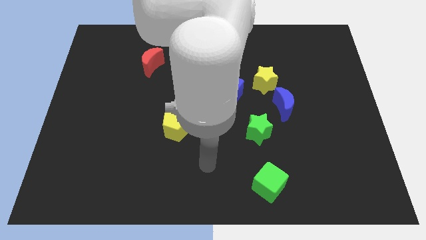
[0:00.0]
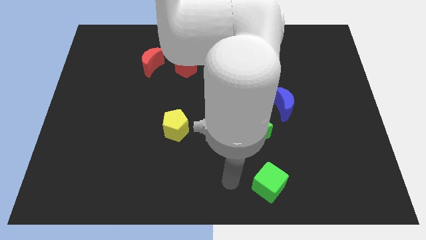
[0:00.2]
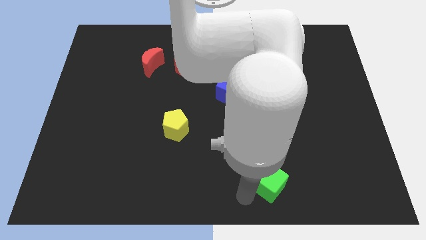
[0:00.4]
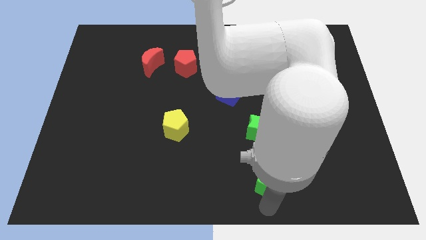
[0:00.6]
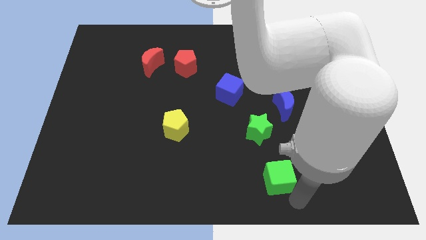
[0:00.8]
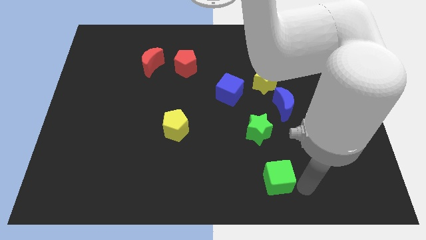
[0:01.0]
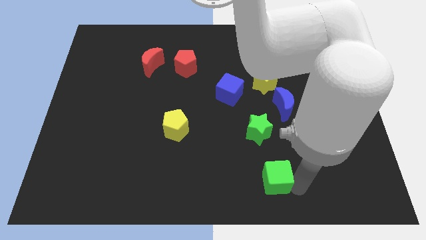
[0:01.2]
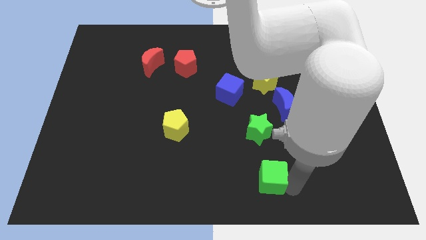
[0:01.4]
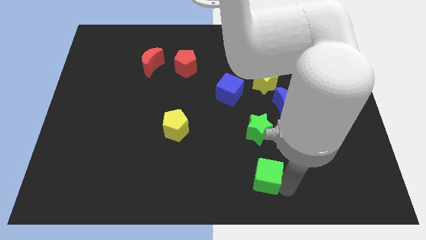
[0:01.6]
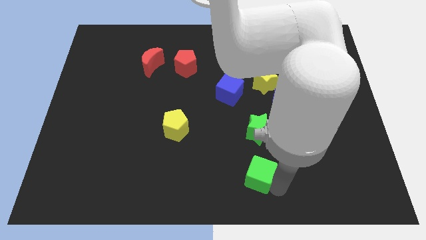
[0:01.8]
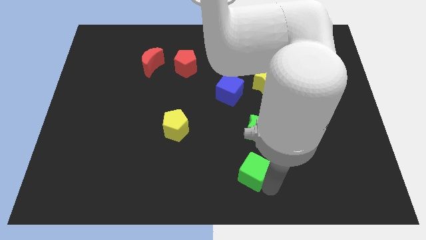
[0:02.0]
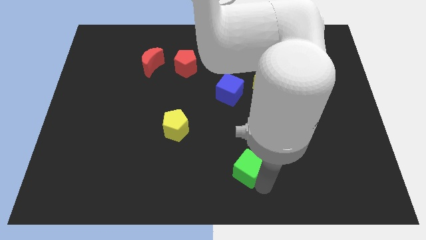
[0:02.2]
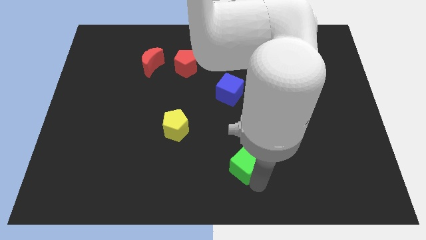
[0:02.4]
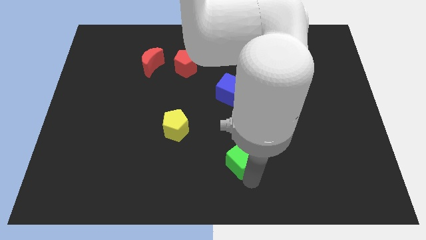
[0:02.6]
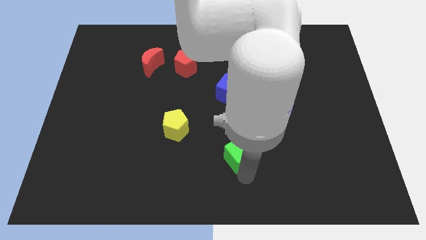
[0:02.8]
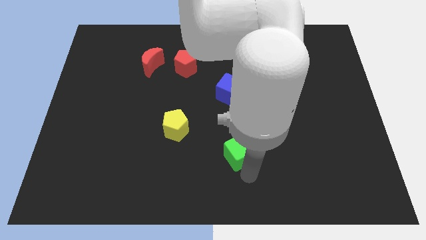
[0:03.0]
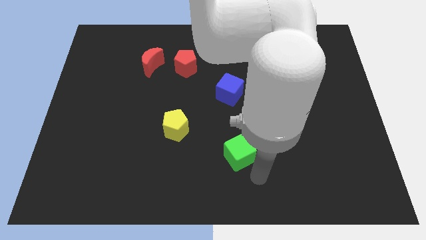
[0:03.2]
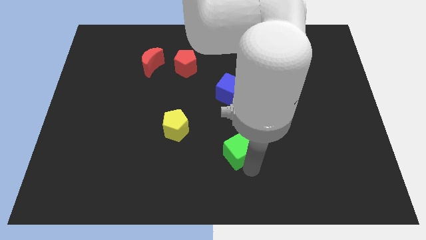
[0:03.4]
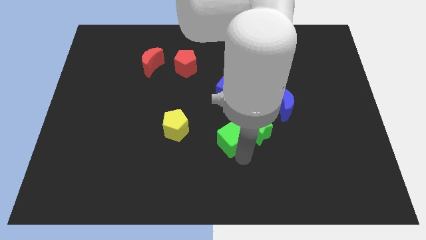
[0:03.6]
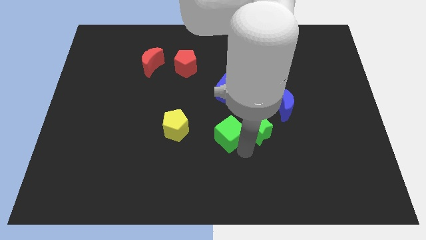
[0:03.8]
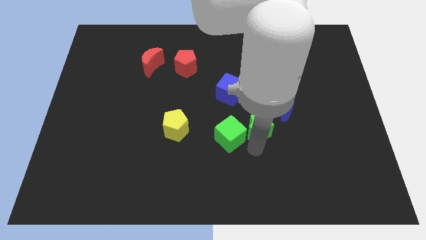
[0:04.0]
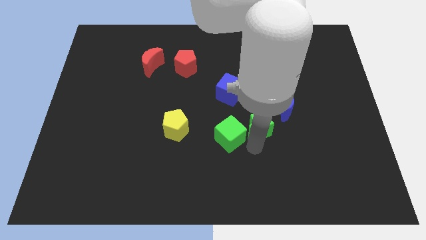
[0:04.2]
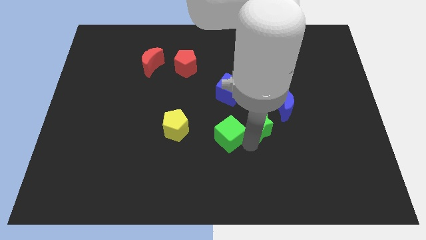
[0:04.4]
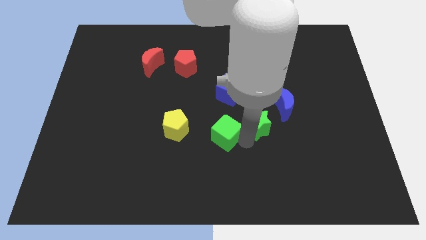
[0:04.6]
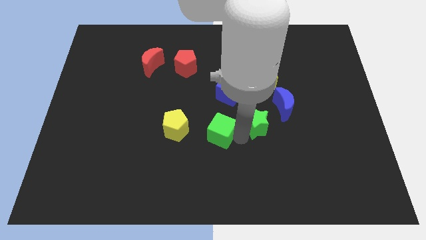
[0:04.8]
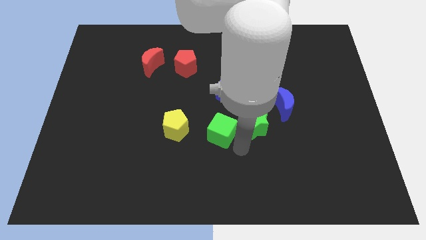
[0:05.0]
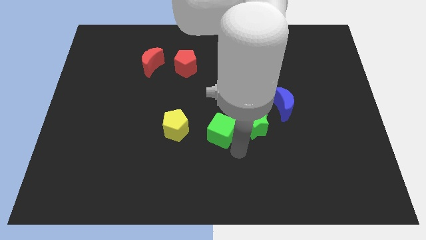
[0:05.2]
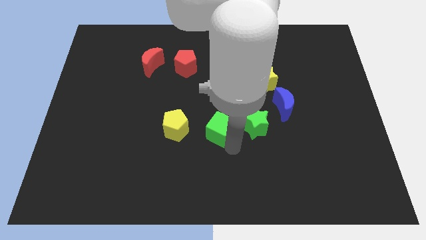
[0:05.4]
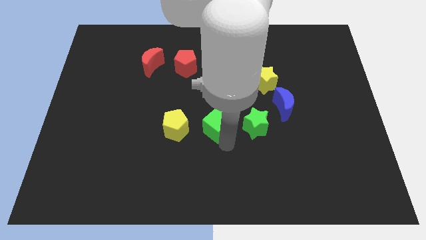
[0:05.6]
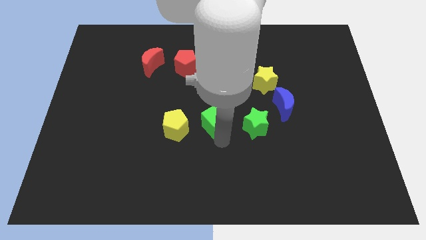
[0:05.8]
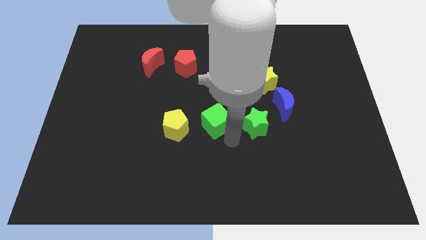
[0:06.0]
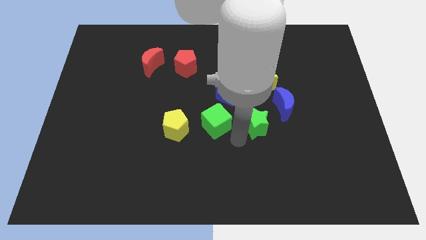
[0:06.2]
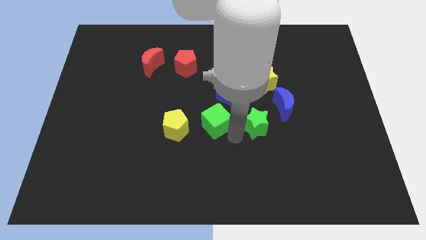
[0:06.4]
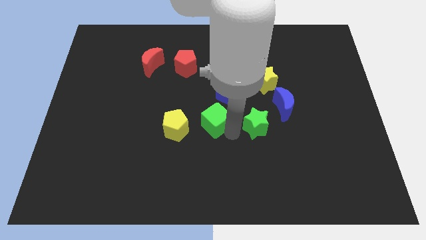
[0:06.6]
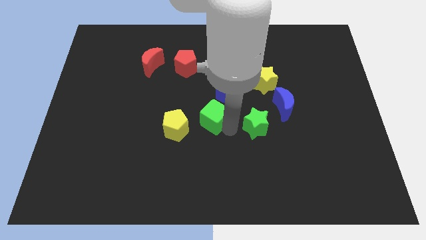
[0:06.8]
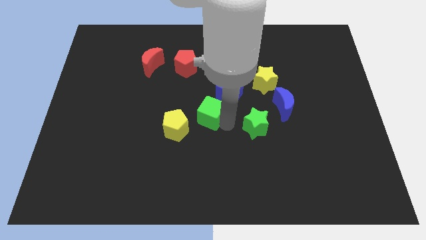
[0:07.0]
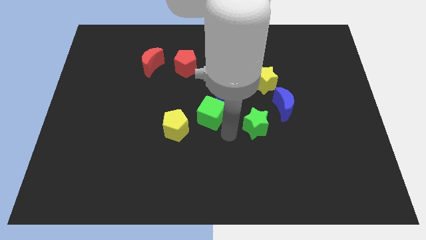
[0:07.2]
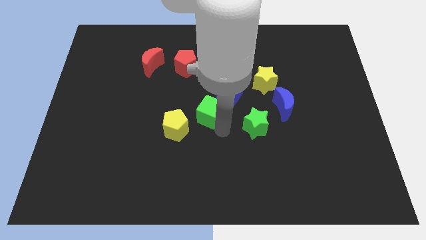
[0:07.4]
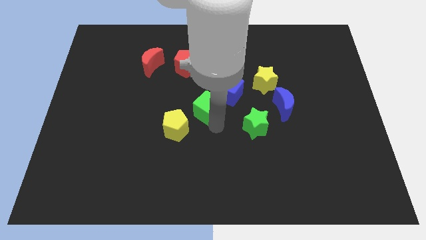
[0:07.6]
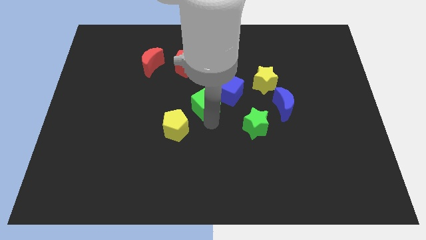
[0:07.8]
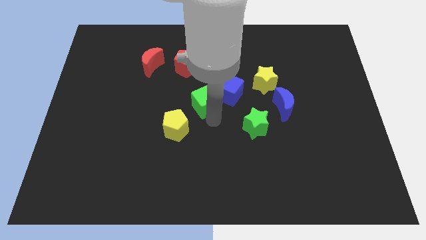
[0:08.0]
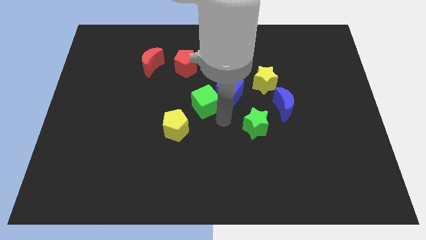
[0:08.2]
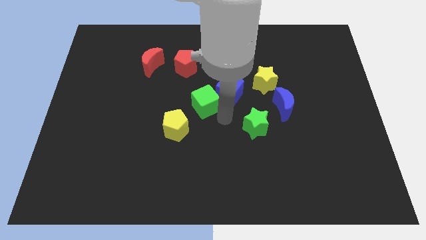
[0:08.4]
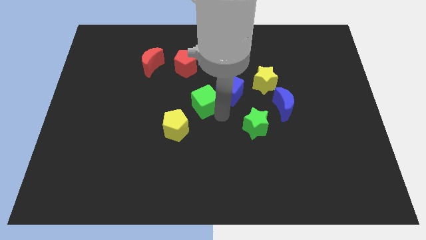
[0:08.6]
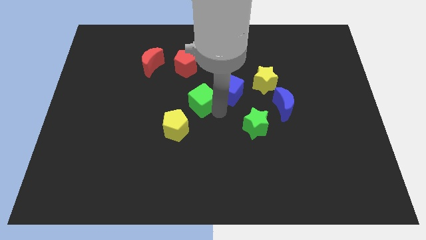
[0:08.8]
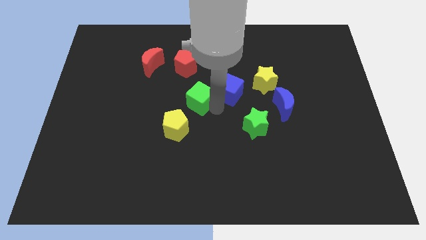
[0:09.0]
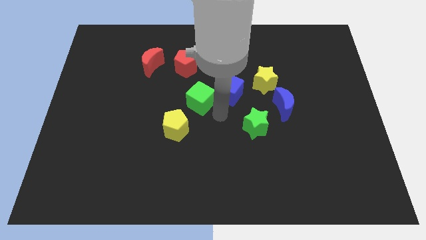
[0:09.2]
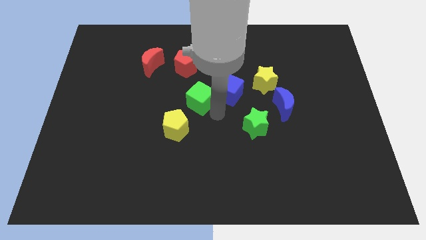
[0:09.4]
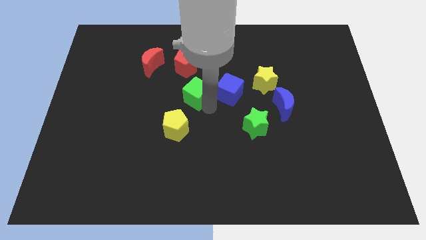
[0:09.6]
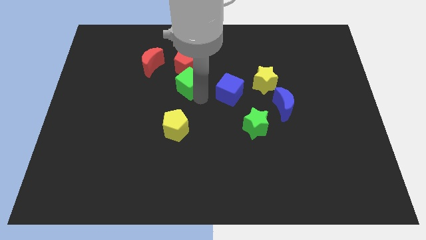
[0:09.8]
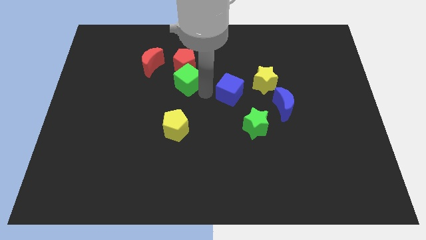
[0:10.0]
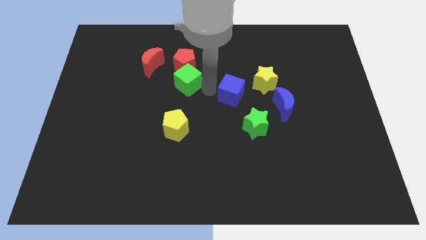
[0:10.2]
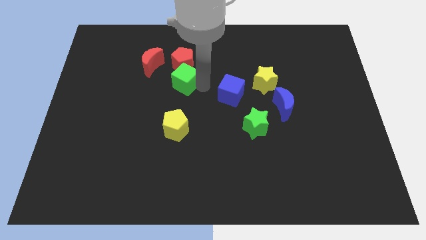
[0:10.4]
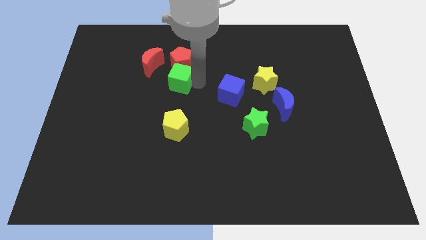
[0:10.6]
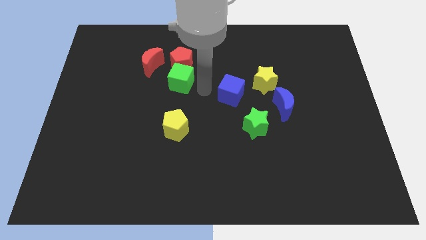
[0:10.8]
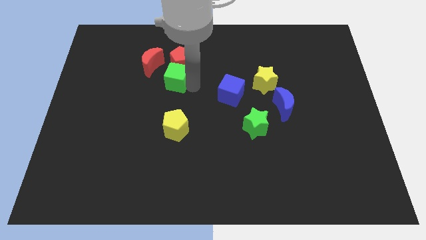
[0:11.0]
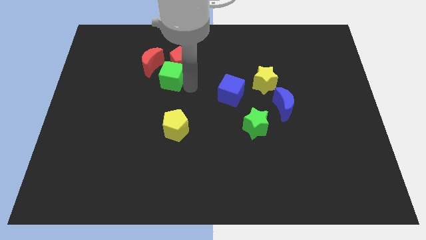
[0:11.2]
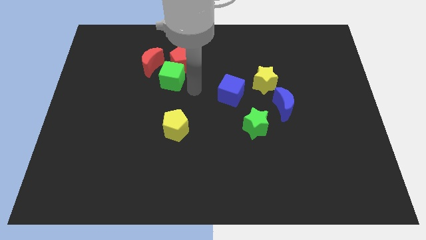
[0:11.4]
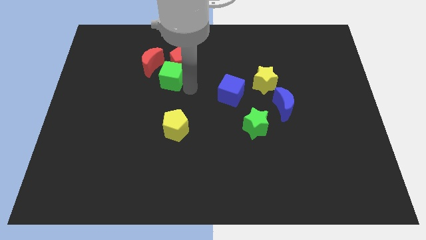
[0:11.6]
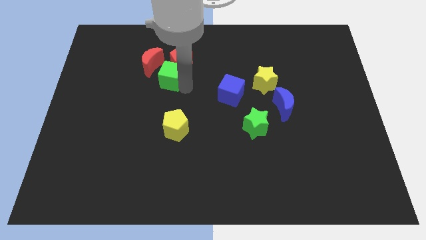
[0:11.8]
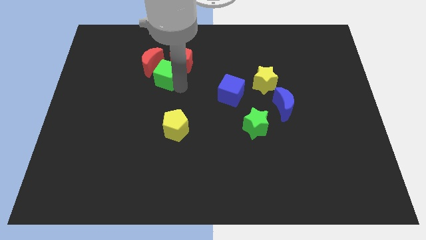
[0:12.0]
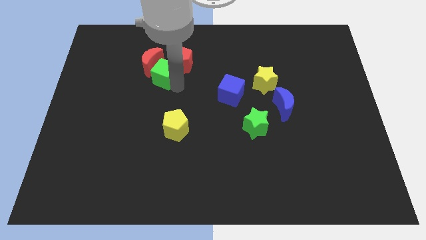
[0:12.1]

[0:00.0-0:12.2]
move the green cube towards the red moon

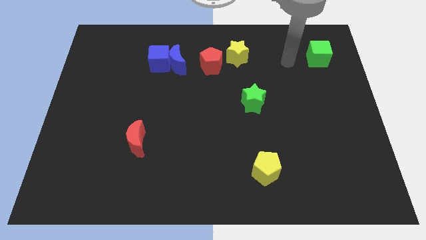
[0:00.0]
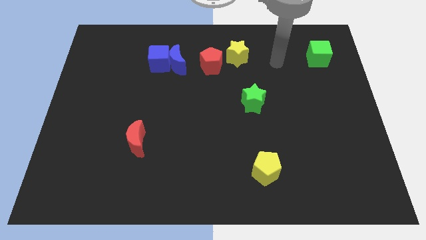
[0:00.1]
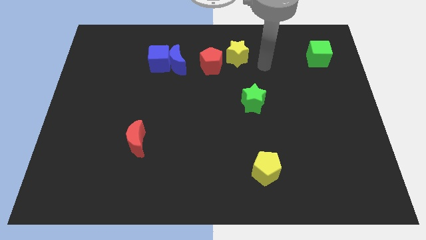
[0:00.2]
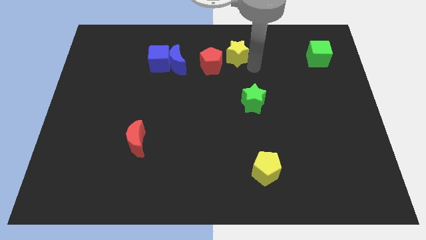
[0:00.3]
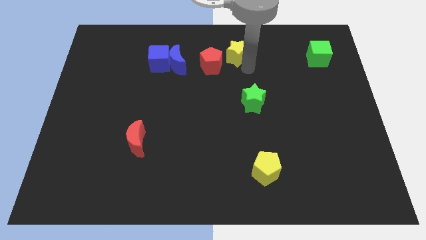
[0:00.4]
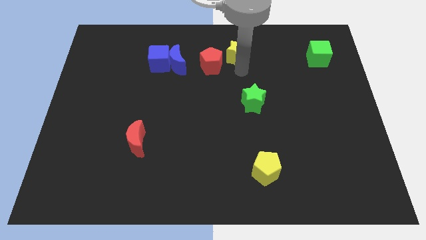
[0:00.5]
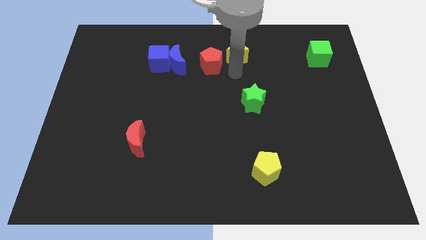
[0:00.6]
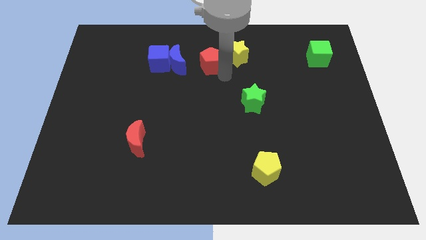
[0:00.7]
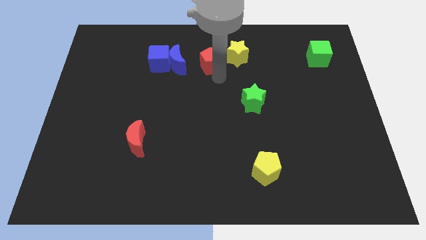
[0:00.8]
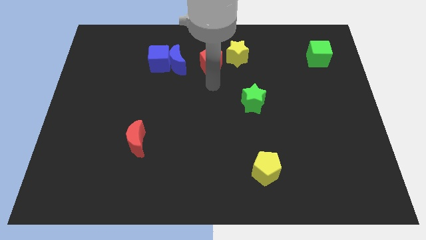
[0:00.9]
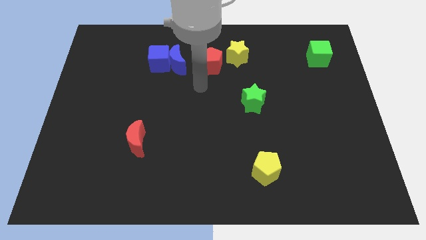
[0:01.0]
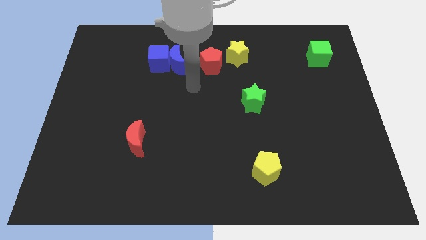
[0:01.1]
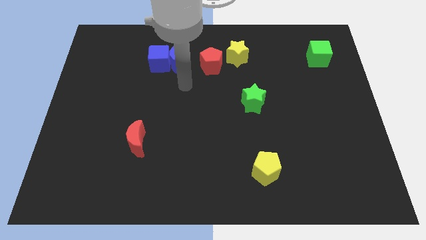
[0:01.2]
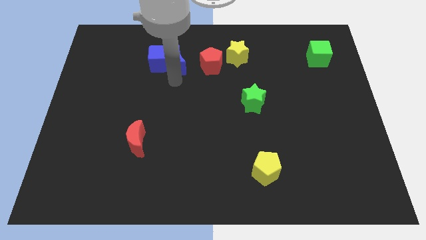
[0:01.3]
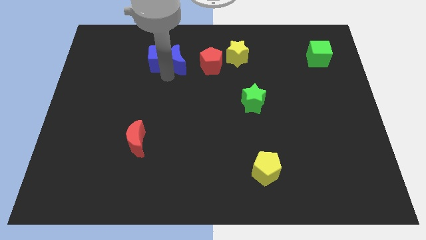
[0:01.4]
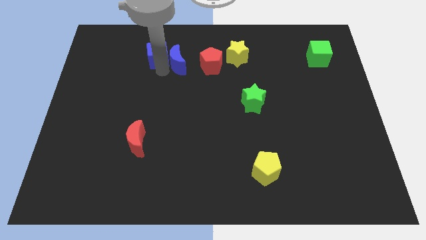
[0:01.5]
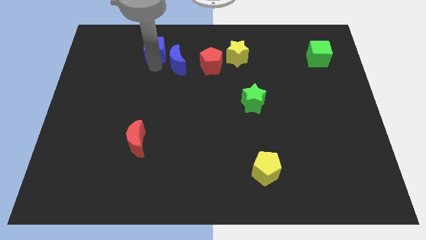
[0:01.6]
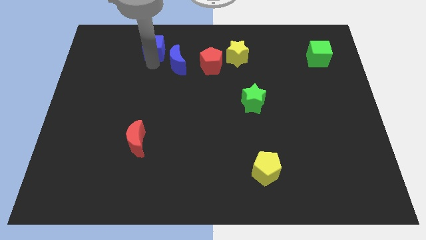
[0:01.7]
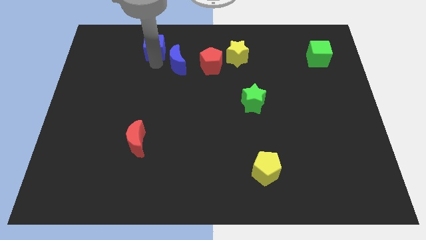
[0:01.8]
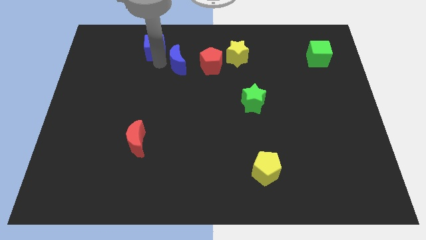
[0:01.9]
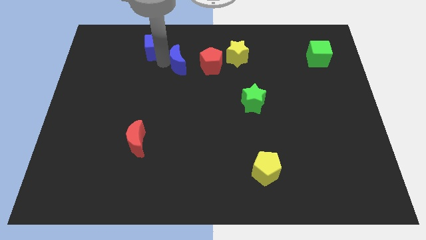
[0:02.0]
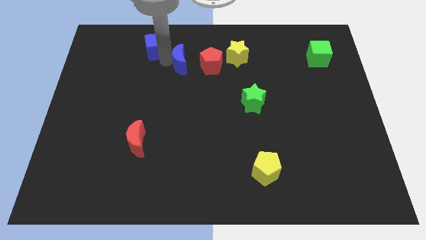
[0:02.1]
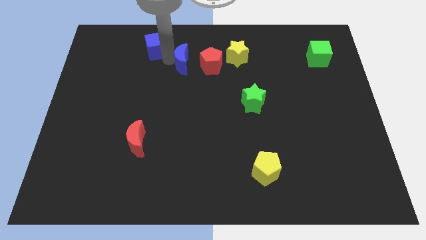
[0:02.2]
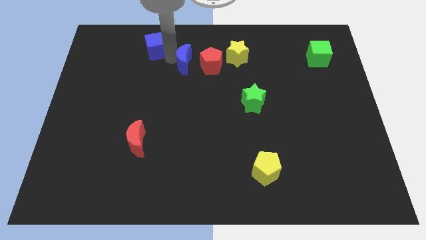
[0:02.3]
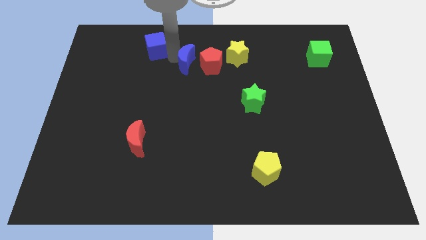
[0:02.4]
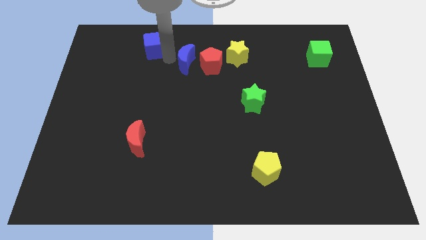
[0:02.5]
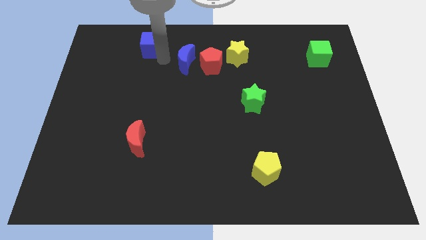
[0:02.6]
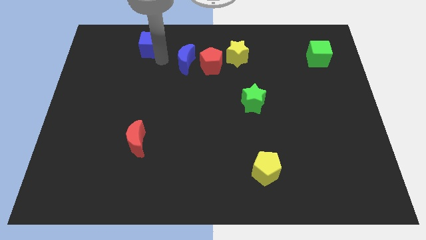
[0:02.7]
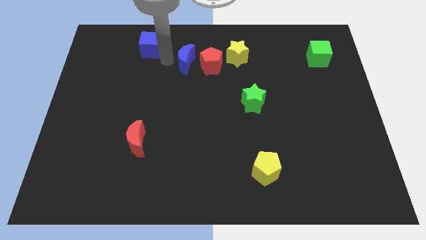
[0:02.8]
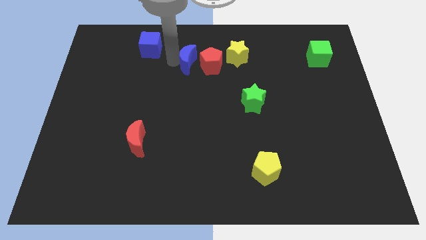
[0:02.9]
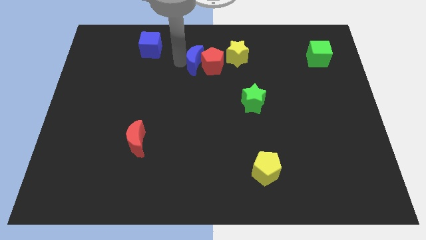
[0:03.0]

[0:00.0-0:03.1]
move the blue moon to the red pentagon
